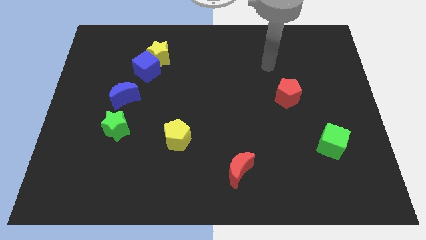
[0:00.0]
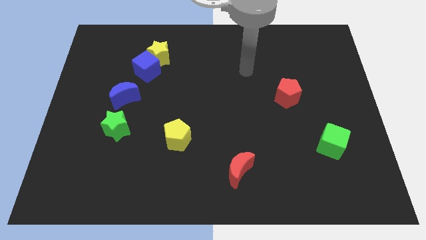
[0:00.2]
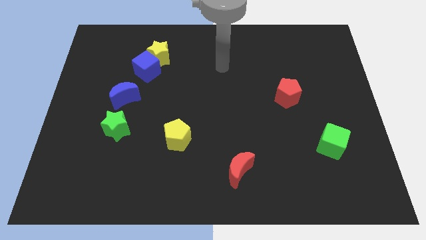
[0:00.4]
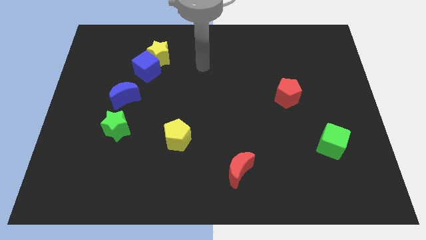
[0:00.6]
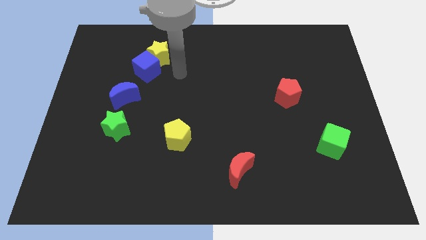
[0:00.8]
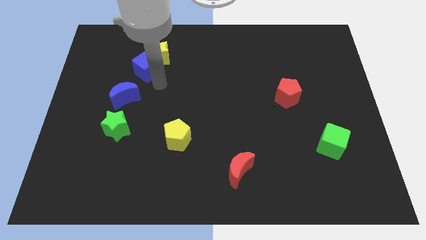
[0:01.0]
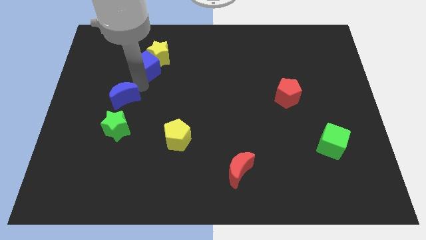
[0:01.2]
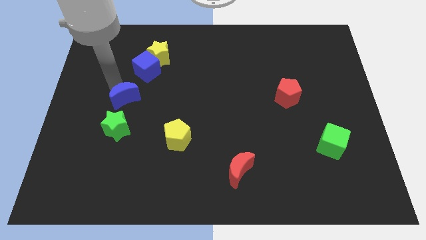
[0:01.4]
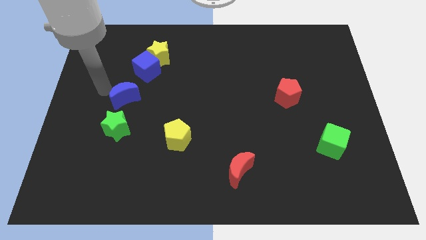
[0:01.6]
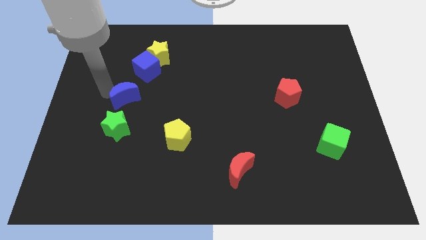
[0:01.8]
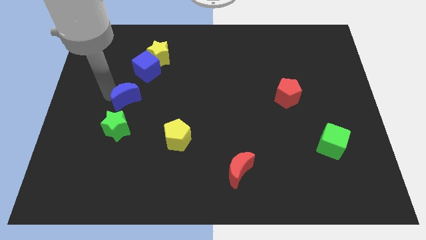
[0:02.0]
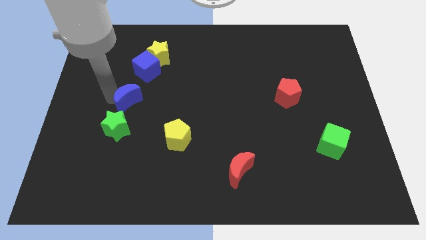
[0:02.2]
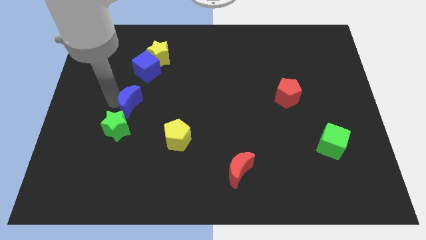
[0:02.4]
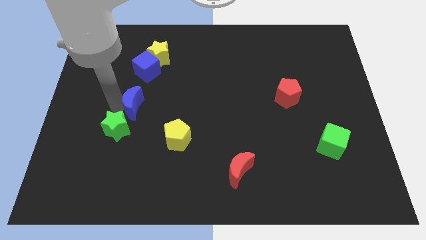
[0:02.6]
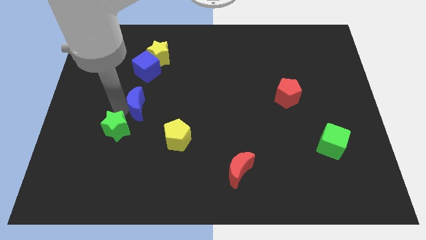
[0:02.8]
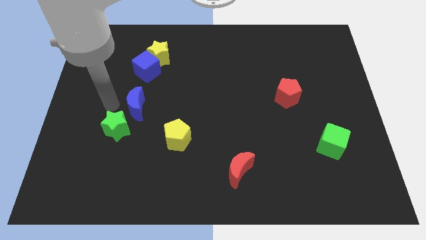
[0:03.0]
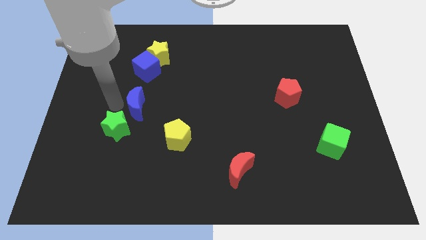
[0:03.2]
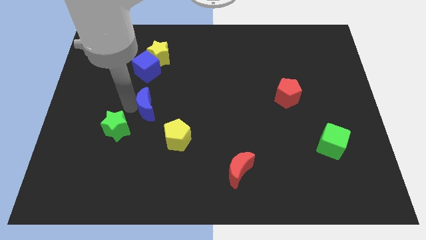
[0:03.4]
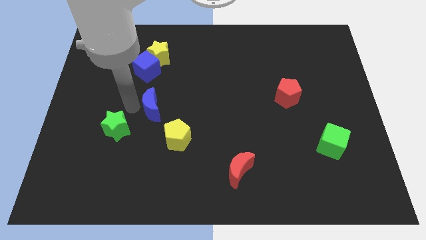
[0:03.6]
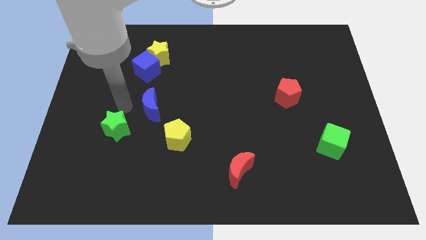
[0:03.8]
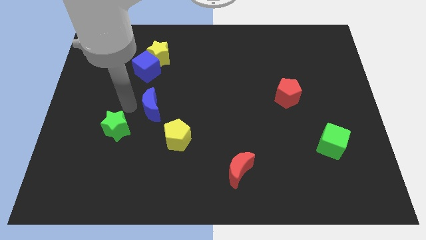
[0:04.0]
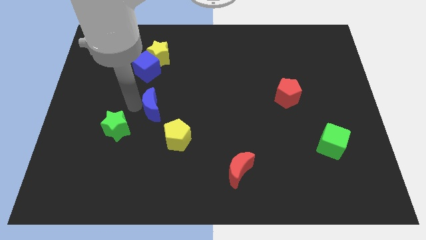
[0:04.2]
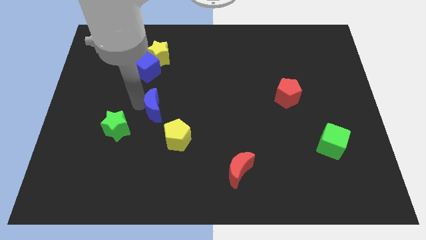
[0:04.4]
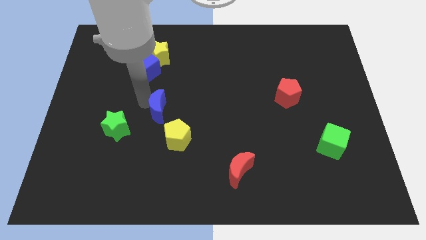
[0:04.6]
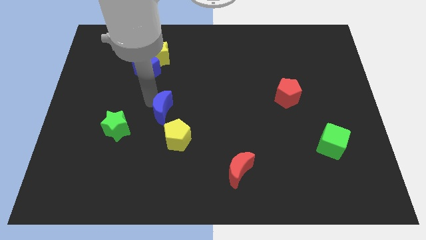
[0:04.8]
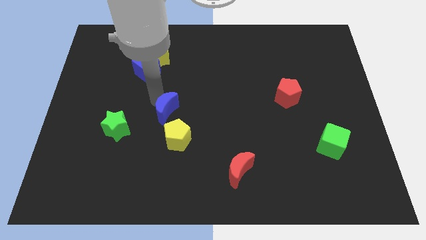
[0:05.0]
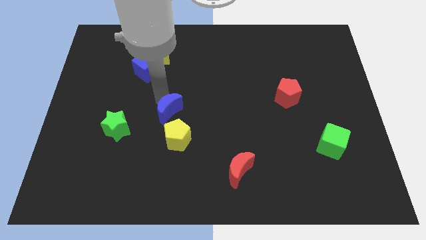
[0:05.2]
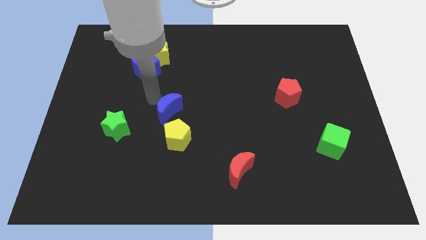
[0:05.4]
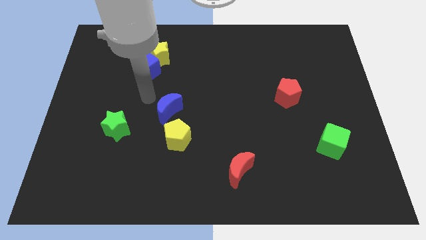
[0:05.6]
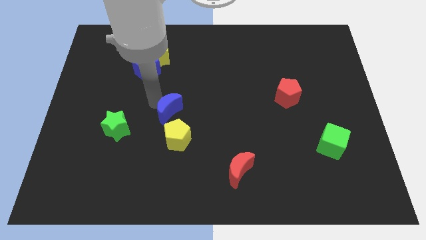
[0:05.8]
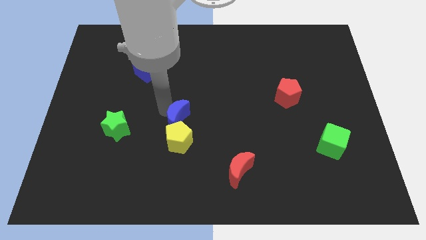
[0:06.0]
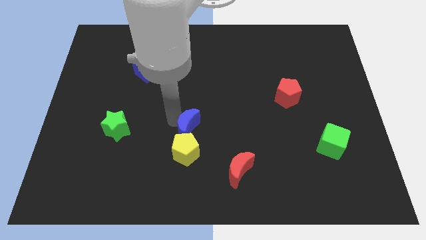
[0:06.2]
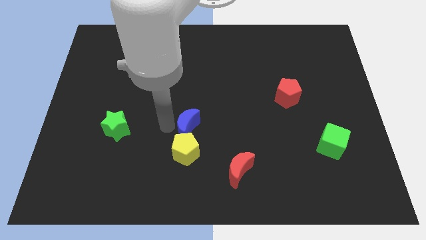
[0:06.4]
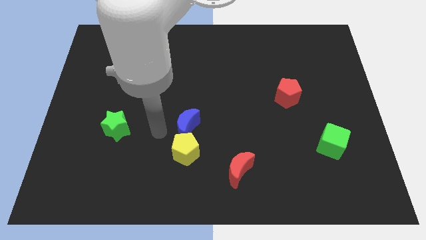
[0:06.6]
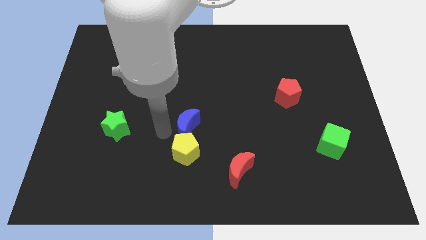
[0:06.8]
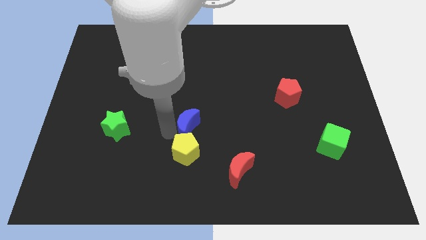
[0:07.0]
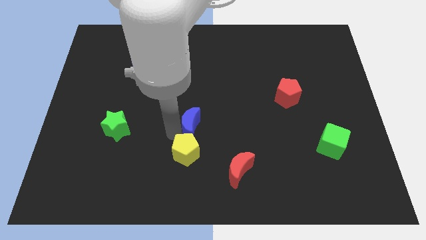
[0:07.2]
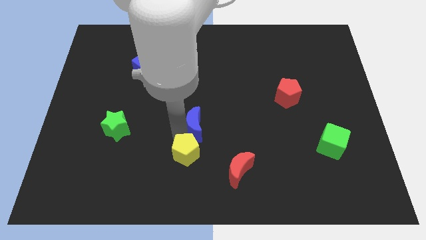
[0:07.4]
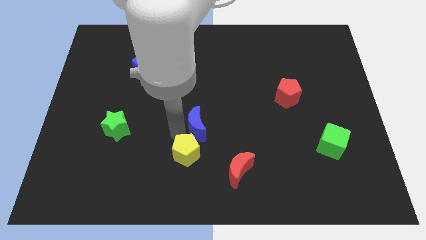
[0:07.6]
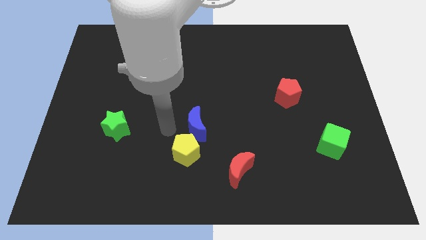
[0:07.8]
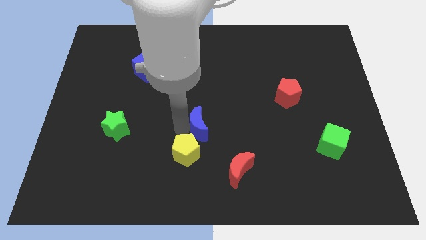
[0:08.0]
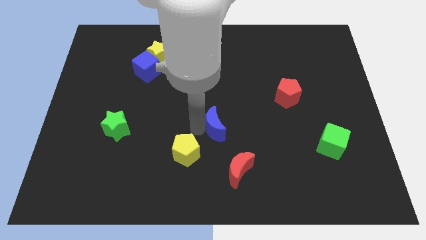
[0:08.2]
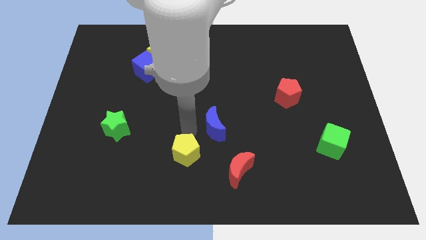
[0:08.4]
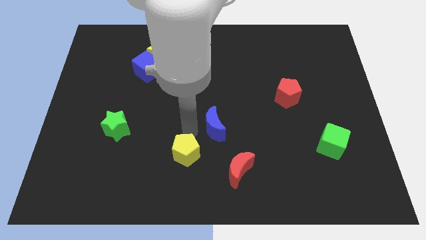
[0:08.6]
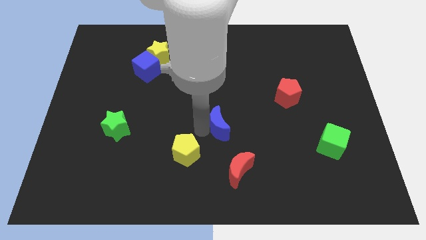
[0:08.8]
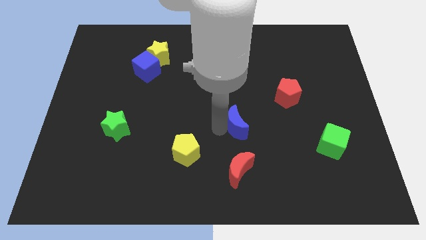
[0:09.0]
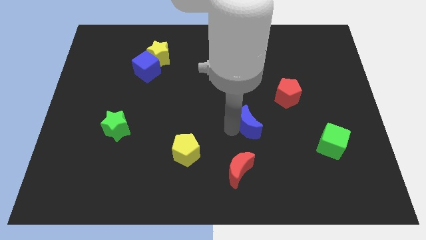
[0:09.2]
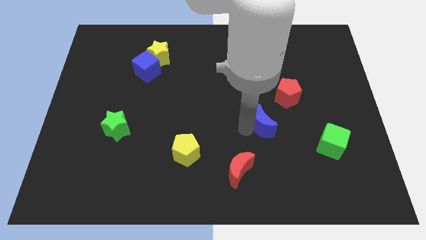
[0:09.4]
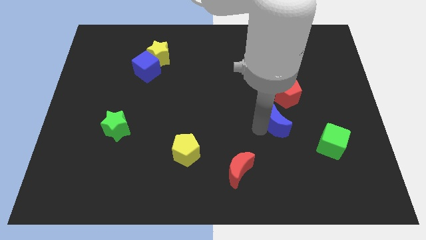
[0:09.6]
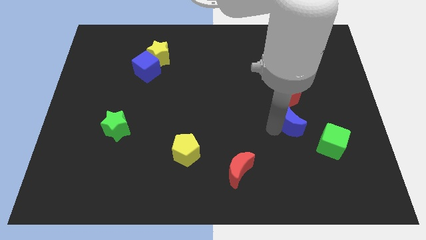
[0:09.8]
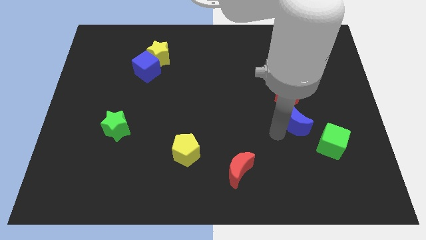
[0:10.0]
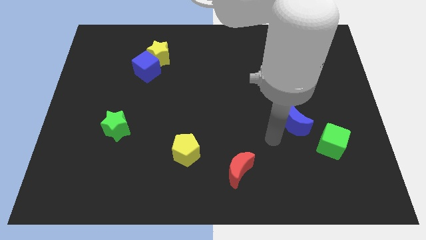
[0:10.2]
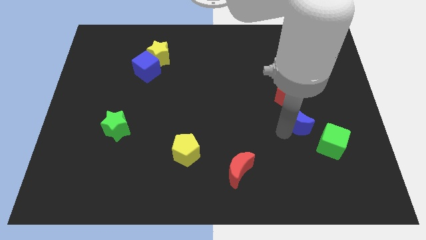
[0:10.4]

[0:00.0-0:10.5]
slide the blue moon to the bottom right of the red pentagon

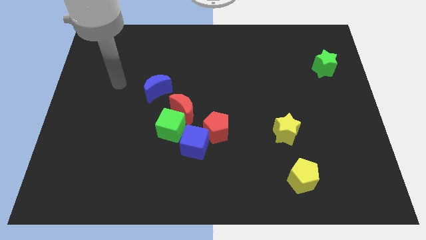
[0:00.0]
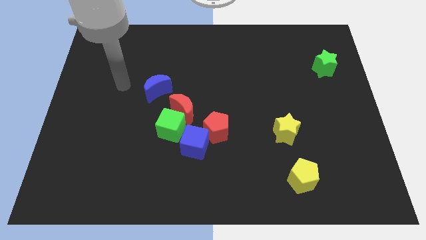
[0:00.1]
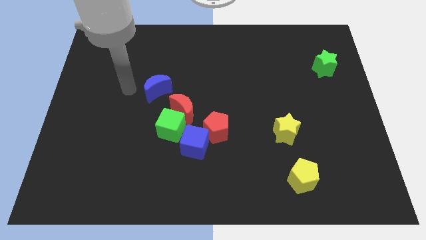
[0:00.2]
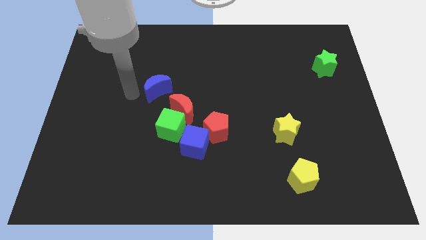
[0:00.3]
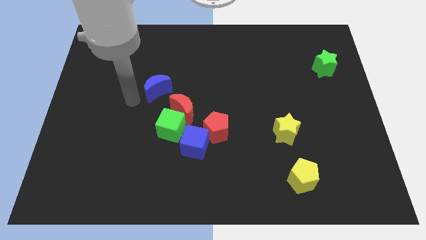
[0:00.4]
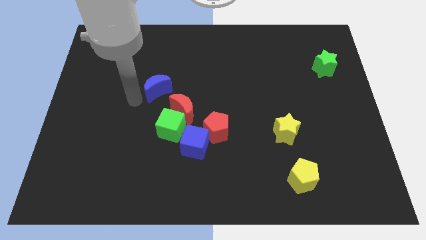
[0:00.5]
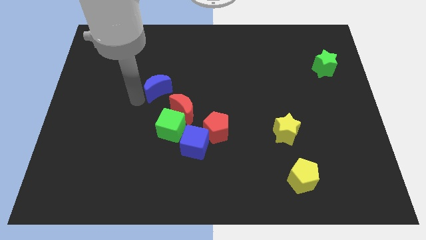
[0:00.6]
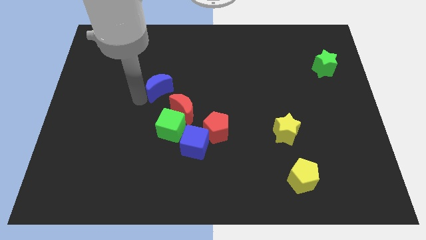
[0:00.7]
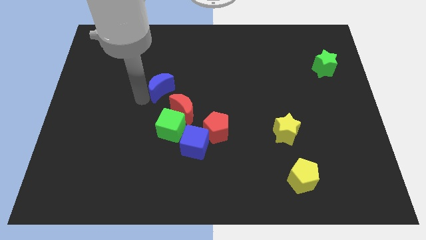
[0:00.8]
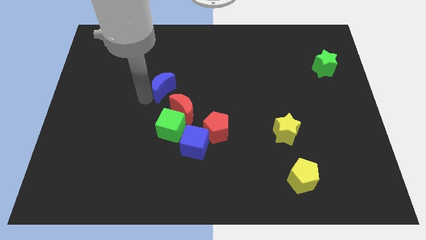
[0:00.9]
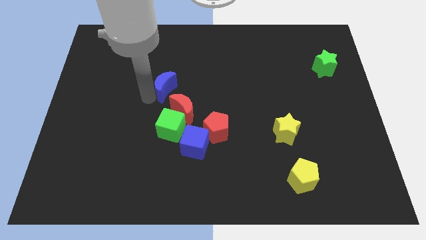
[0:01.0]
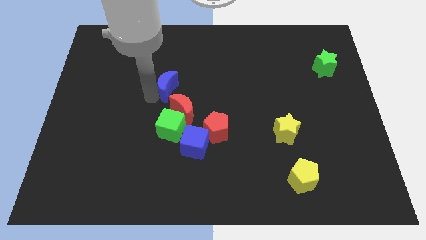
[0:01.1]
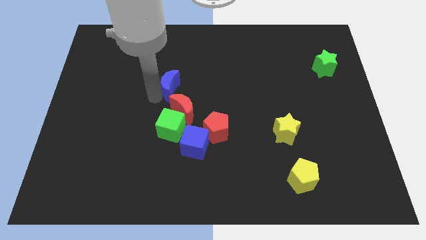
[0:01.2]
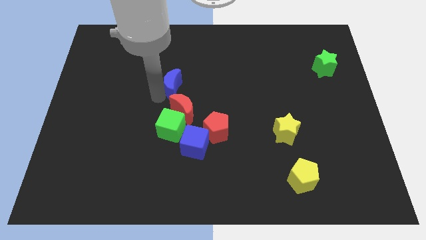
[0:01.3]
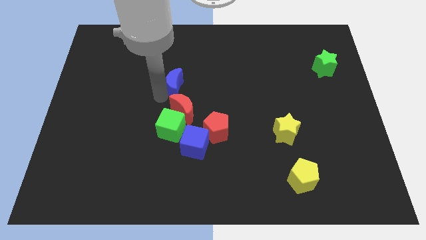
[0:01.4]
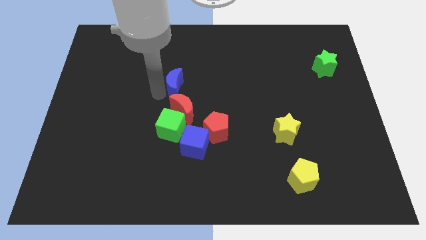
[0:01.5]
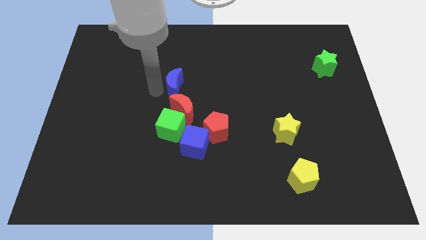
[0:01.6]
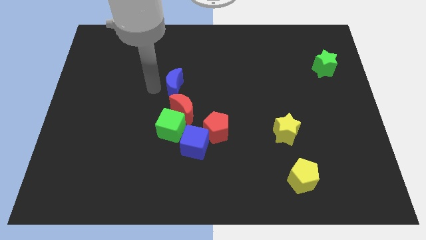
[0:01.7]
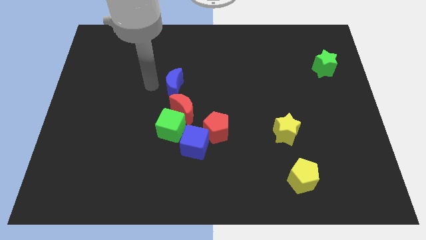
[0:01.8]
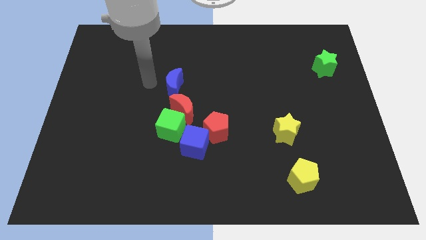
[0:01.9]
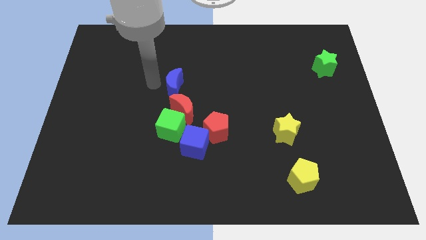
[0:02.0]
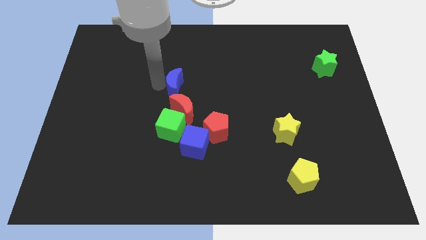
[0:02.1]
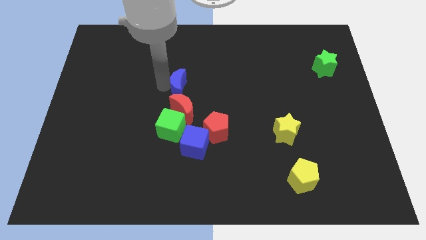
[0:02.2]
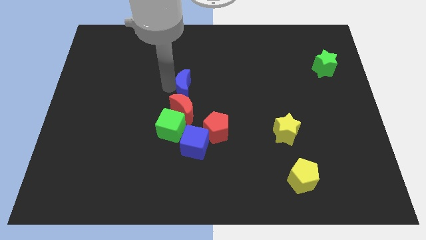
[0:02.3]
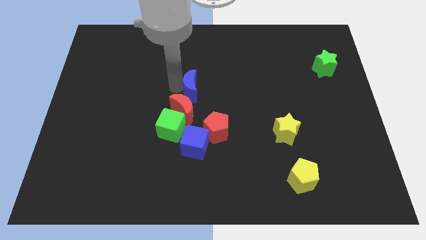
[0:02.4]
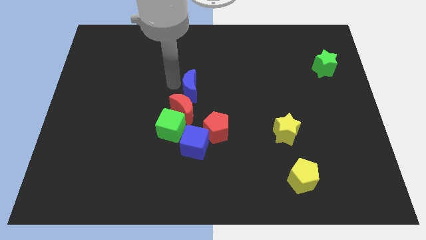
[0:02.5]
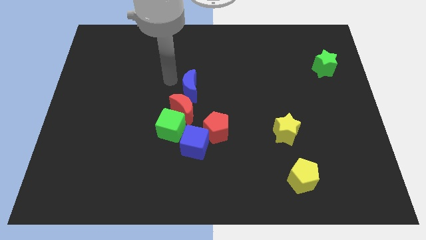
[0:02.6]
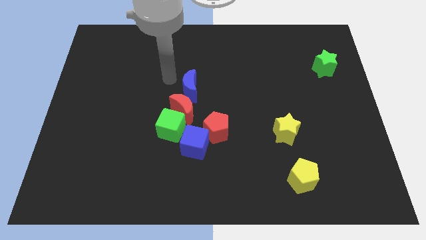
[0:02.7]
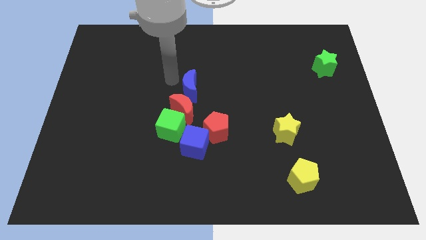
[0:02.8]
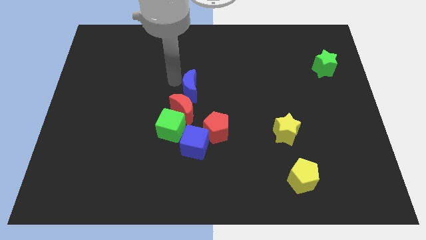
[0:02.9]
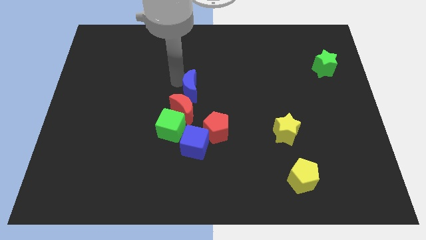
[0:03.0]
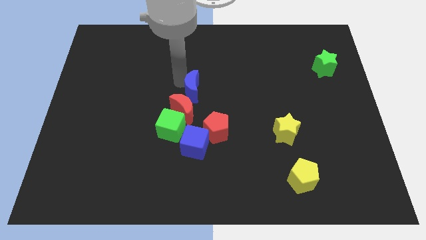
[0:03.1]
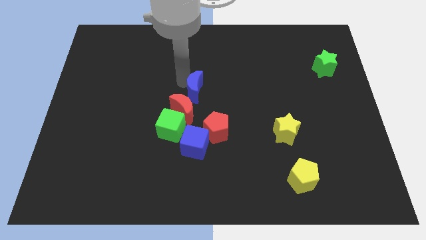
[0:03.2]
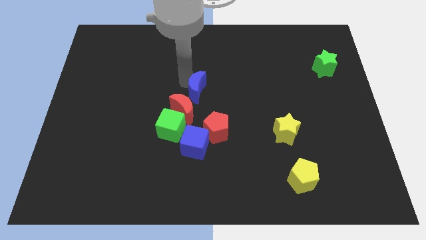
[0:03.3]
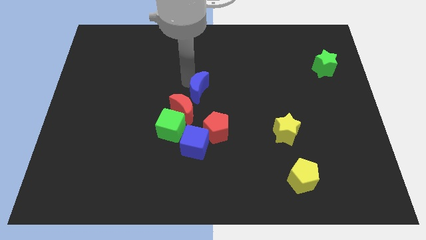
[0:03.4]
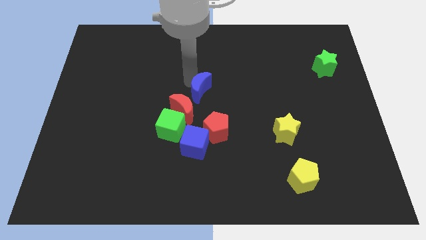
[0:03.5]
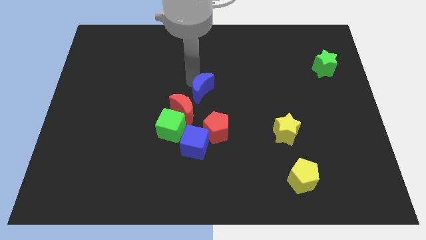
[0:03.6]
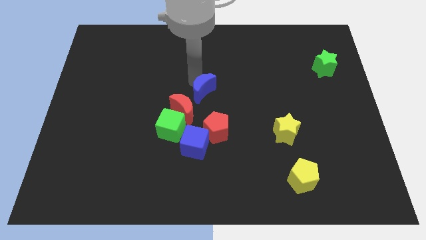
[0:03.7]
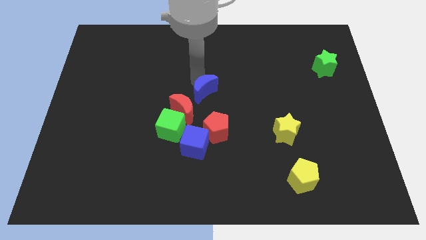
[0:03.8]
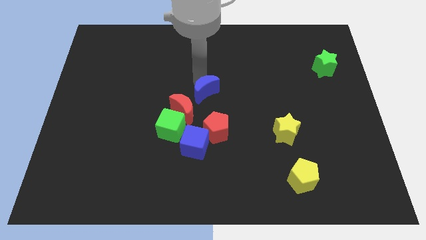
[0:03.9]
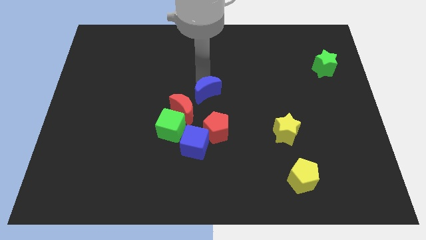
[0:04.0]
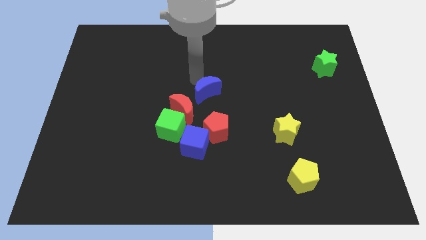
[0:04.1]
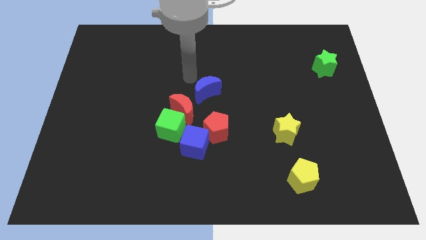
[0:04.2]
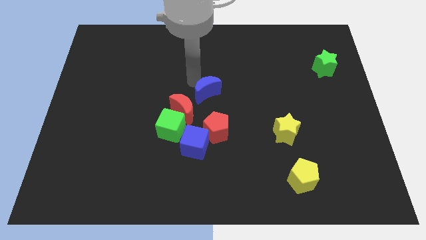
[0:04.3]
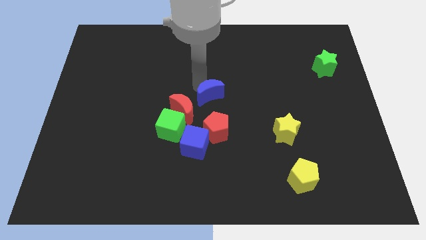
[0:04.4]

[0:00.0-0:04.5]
put the blue moon to the right side of the red moon
